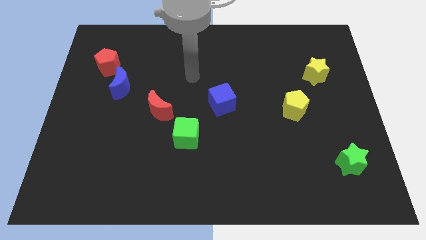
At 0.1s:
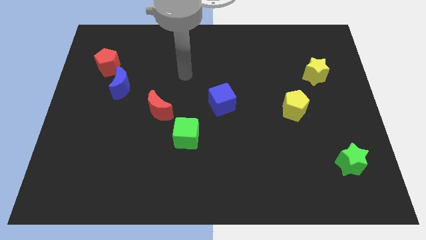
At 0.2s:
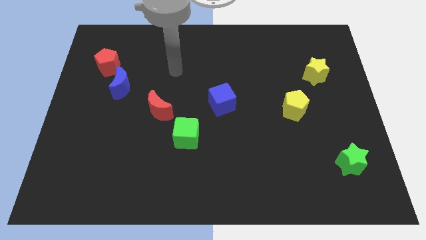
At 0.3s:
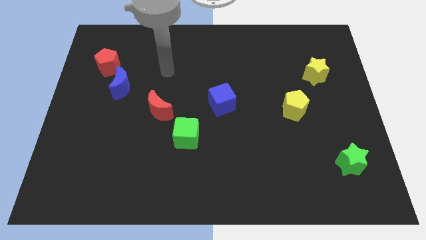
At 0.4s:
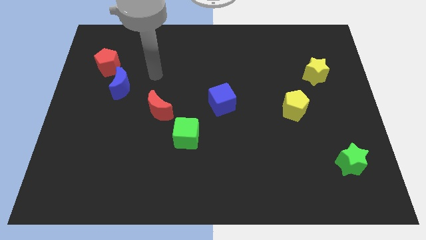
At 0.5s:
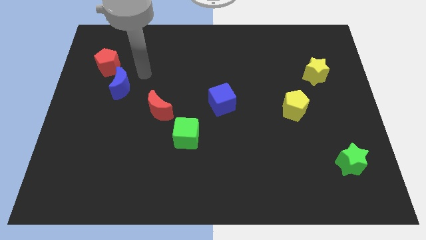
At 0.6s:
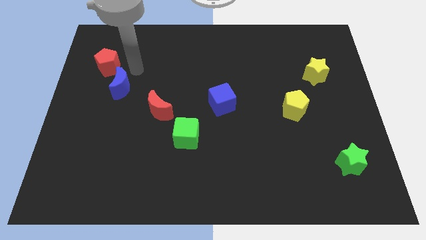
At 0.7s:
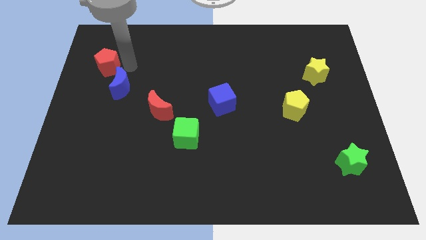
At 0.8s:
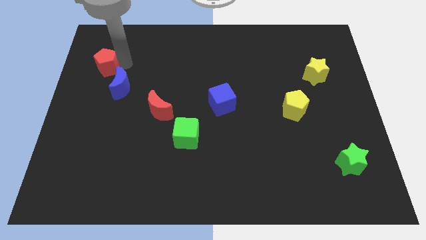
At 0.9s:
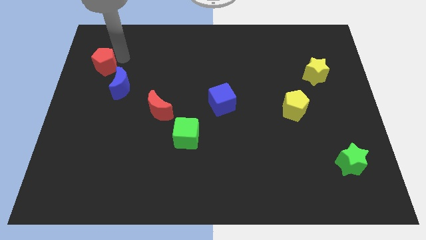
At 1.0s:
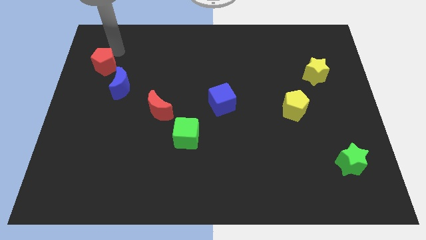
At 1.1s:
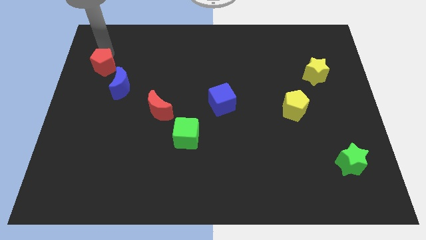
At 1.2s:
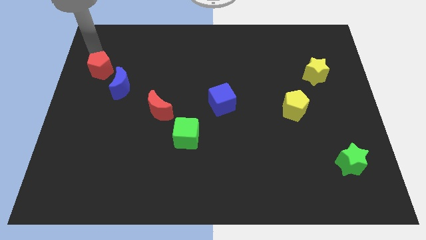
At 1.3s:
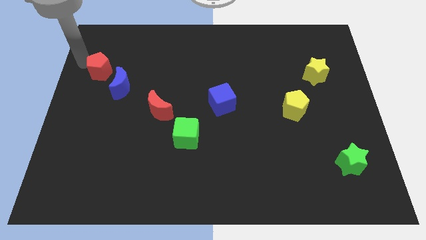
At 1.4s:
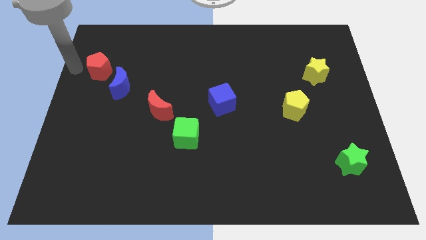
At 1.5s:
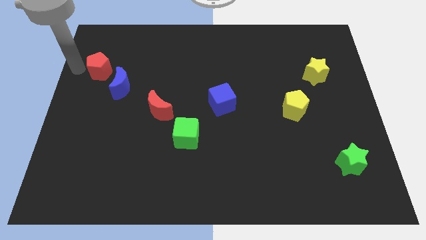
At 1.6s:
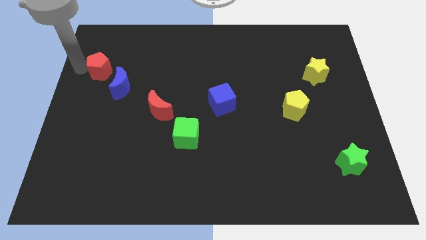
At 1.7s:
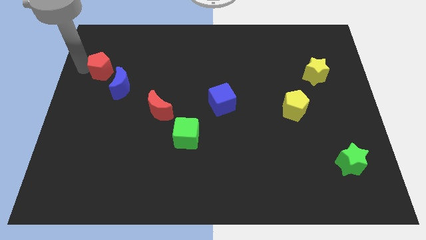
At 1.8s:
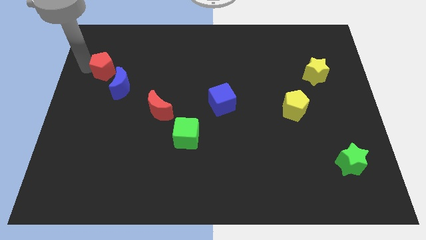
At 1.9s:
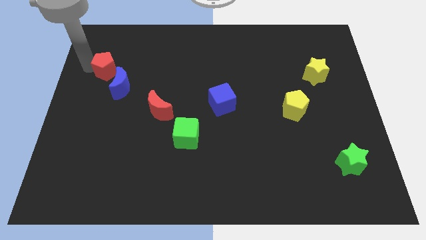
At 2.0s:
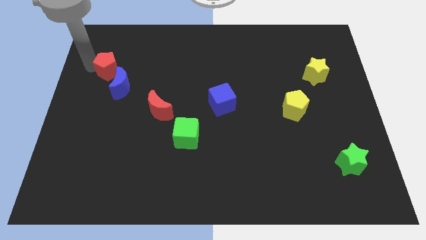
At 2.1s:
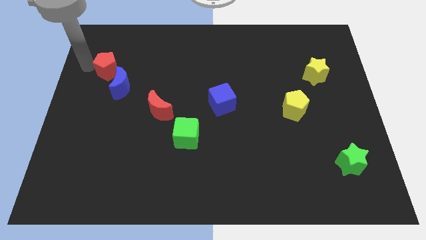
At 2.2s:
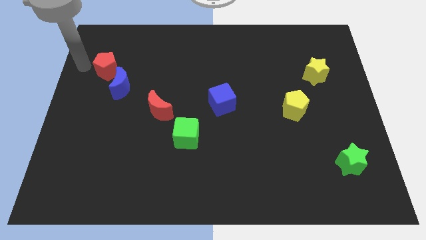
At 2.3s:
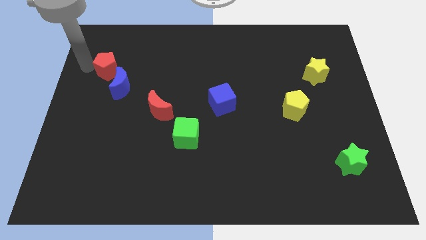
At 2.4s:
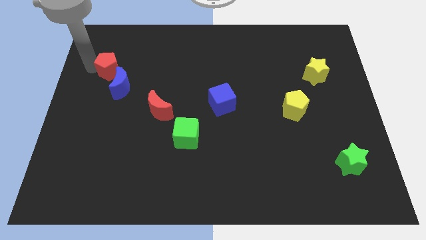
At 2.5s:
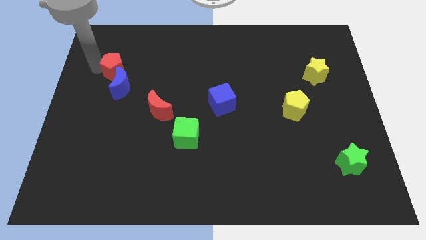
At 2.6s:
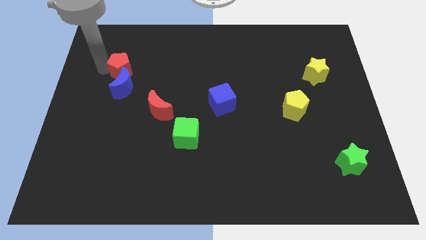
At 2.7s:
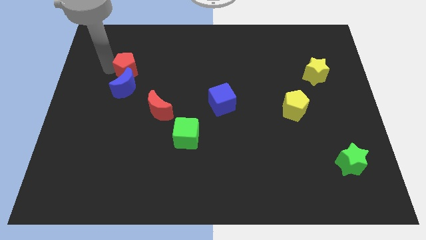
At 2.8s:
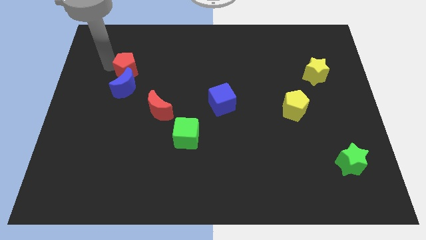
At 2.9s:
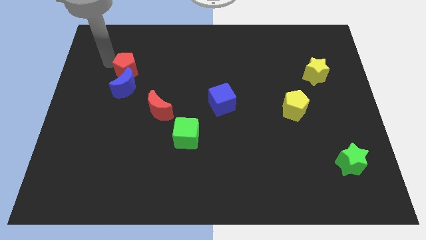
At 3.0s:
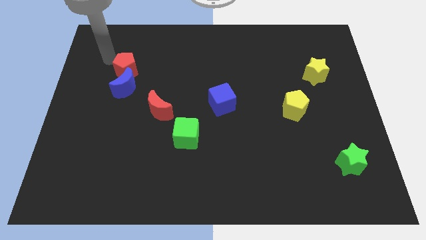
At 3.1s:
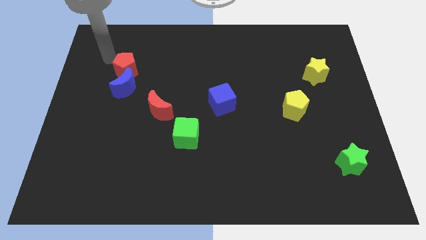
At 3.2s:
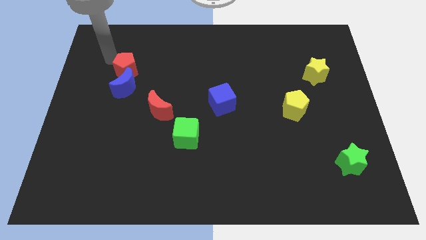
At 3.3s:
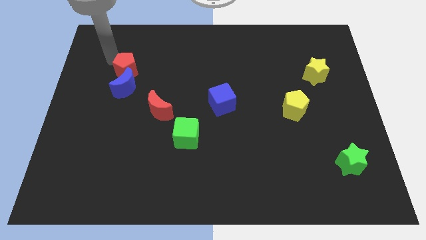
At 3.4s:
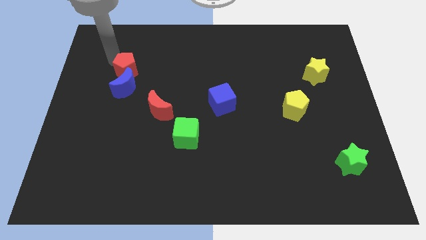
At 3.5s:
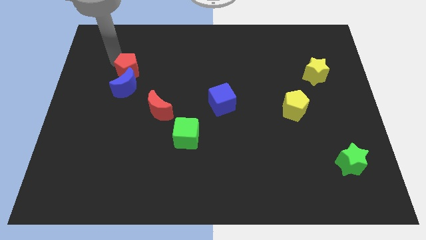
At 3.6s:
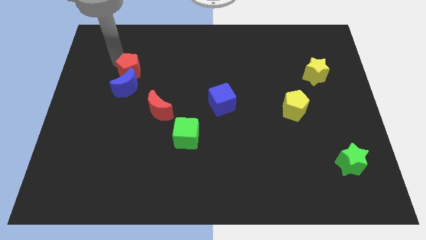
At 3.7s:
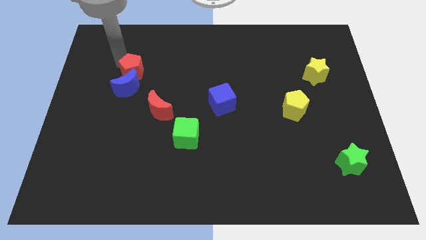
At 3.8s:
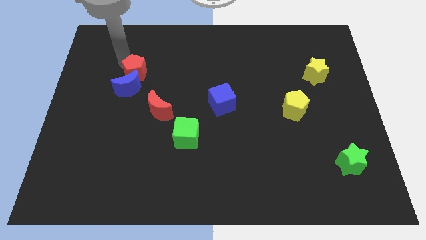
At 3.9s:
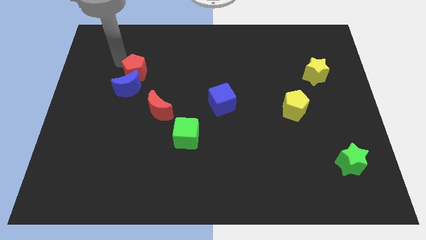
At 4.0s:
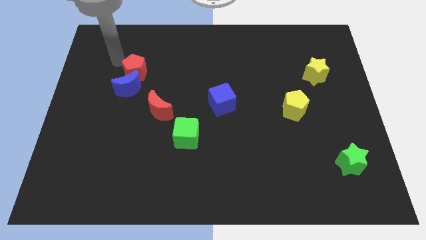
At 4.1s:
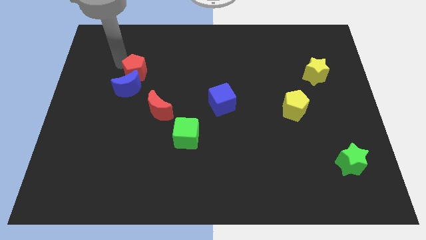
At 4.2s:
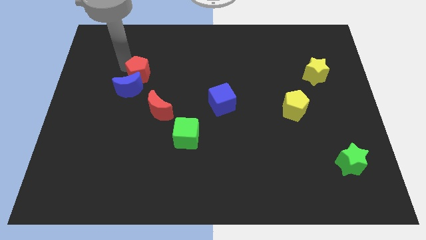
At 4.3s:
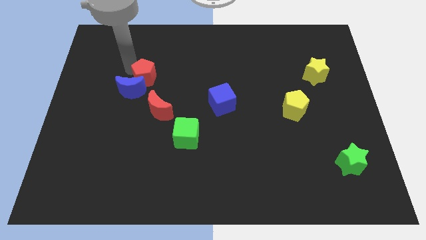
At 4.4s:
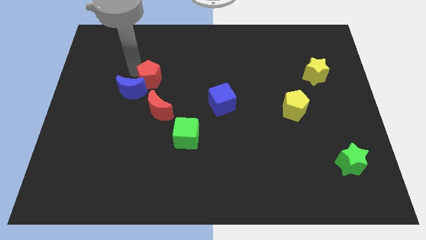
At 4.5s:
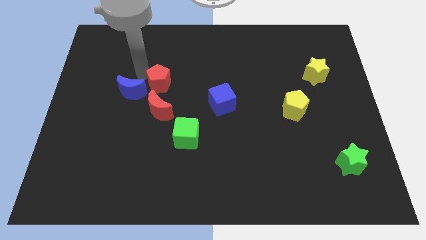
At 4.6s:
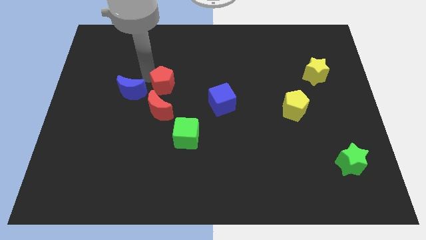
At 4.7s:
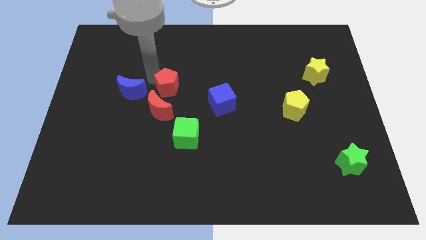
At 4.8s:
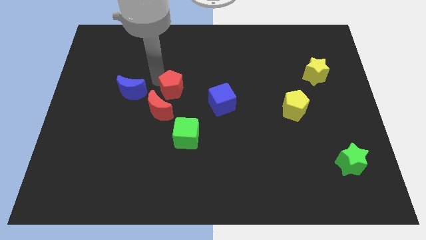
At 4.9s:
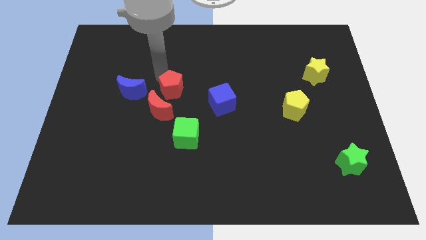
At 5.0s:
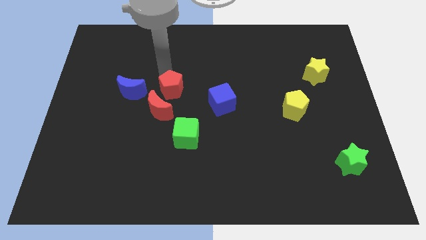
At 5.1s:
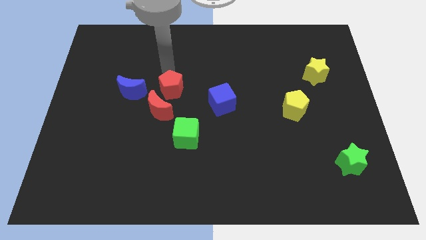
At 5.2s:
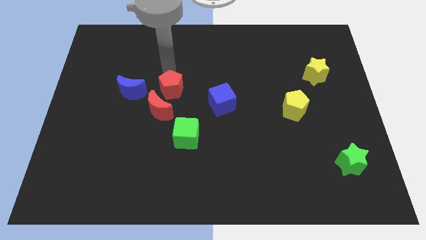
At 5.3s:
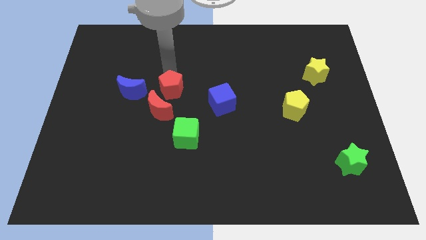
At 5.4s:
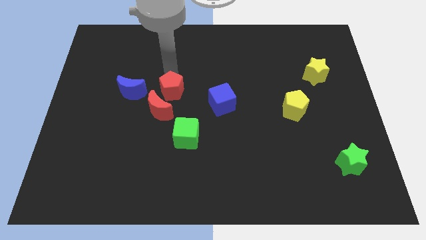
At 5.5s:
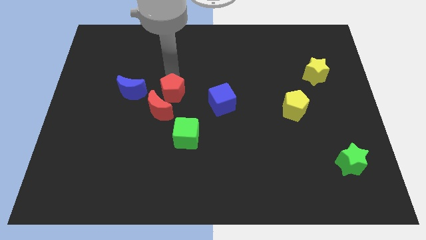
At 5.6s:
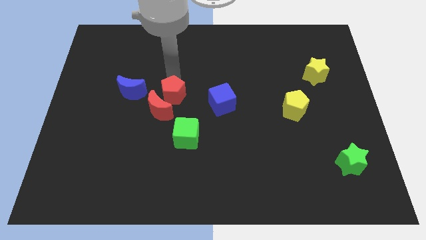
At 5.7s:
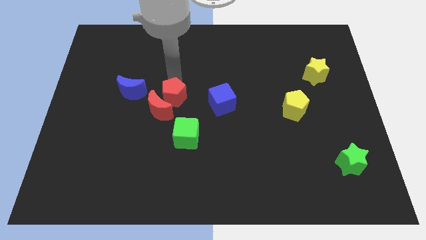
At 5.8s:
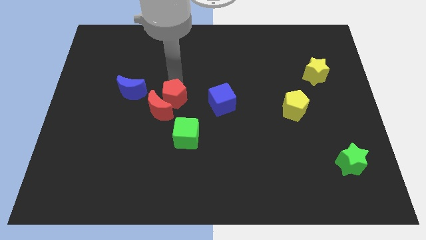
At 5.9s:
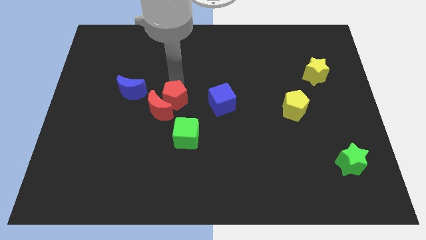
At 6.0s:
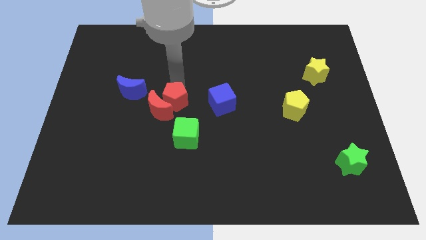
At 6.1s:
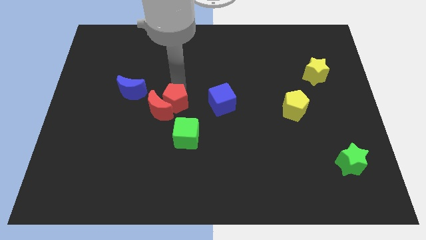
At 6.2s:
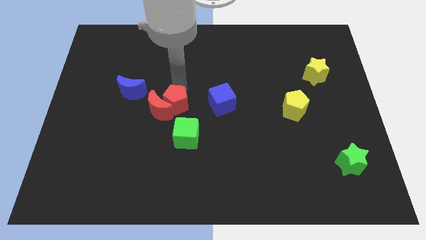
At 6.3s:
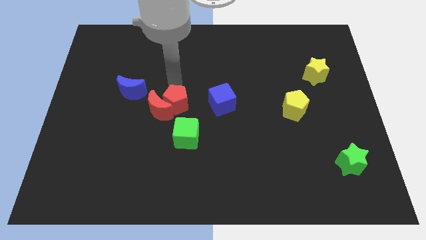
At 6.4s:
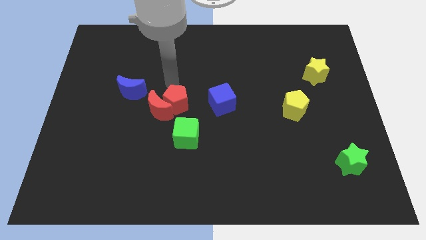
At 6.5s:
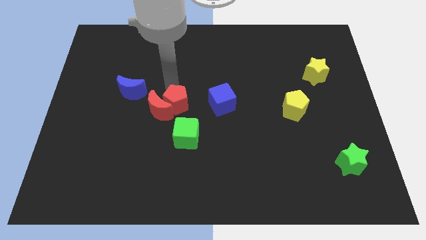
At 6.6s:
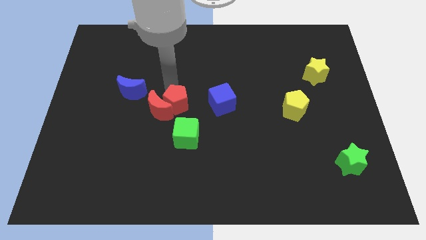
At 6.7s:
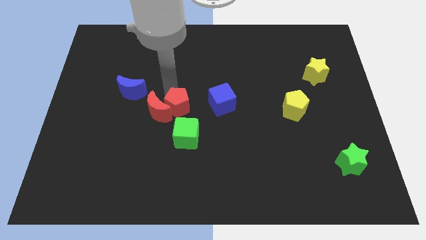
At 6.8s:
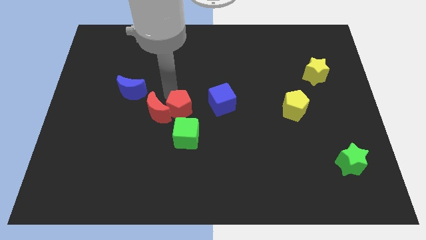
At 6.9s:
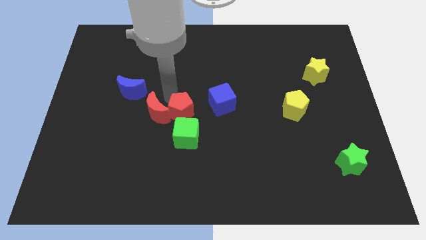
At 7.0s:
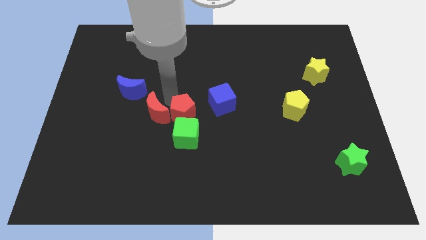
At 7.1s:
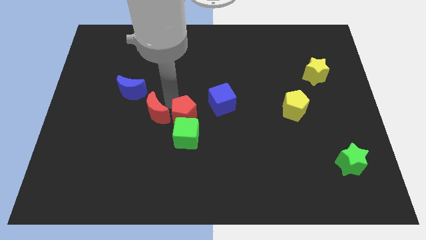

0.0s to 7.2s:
push the red pentagon to the green cube
